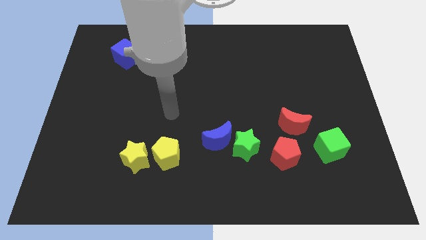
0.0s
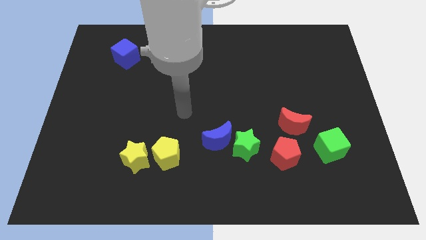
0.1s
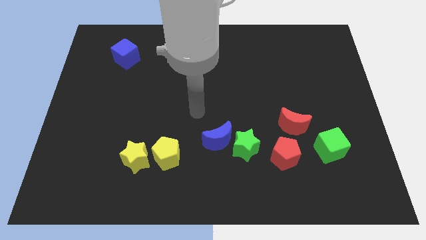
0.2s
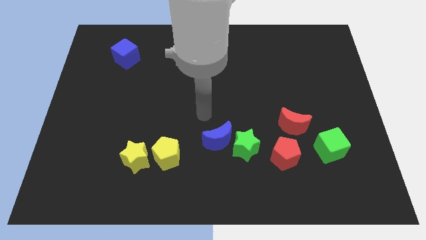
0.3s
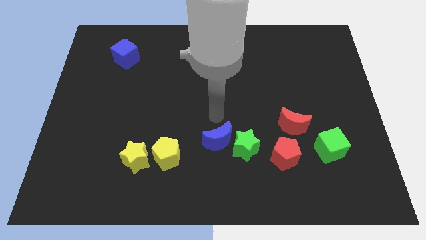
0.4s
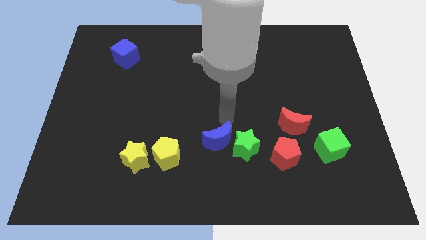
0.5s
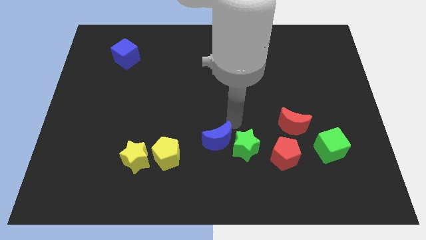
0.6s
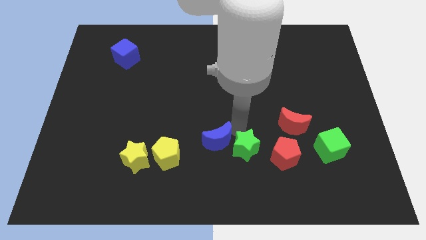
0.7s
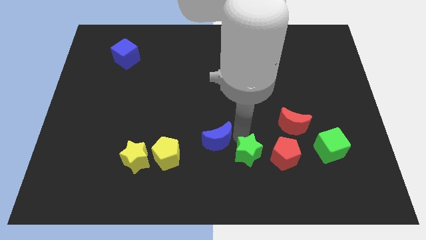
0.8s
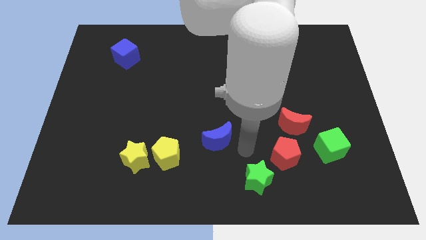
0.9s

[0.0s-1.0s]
pull the blue moon apart from the green star

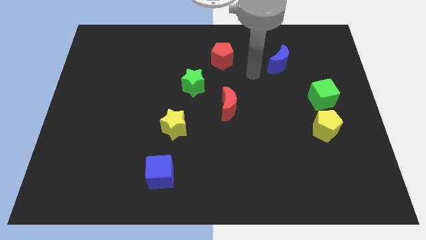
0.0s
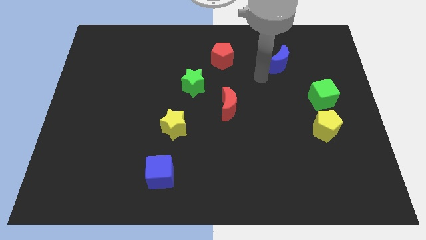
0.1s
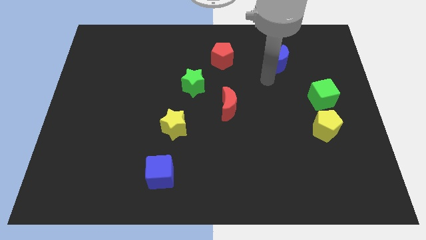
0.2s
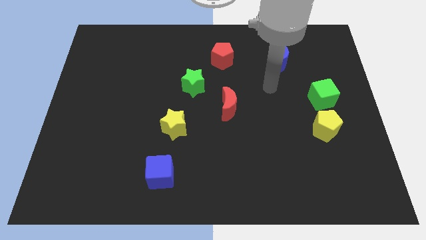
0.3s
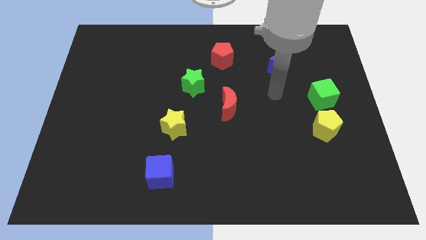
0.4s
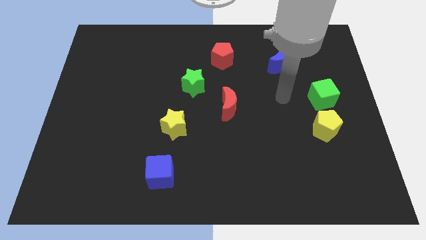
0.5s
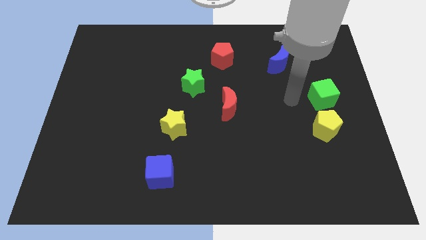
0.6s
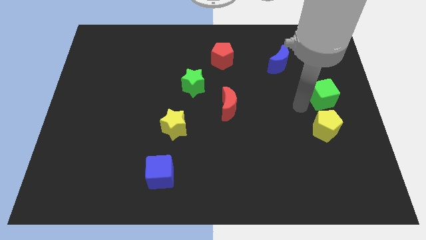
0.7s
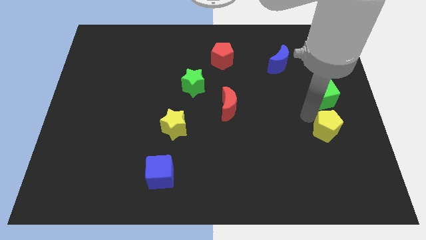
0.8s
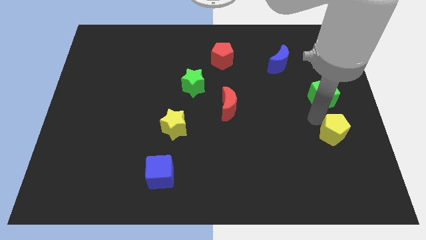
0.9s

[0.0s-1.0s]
move the green cube away from the yellow pentagon

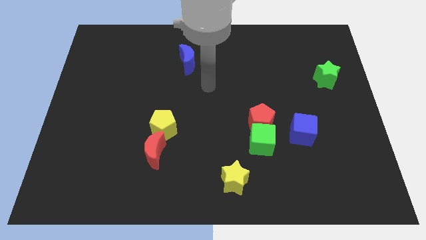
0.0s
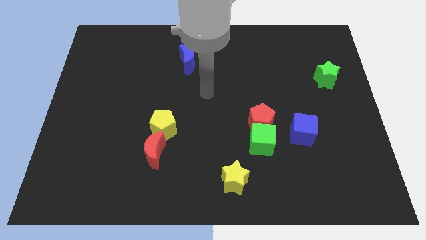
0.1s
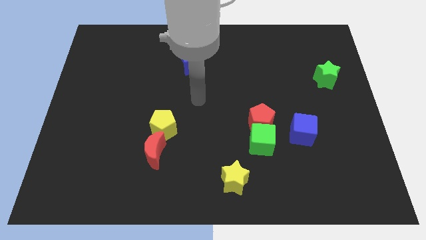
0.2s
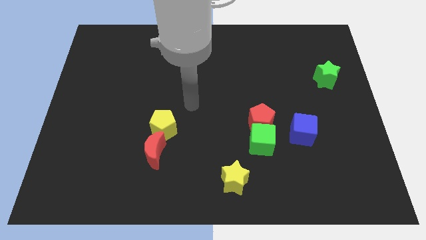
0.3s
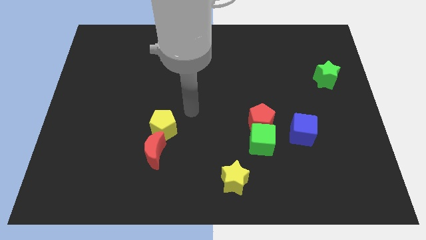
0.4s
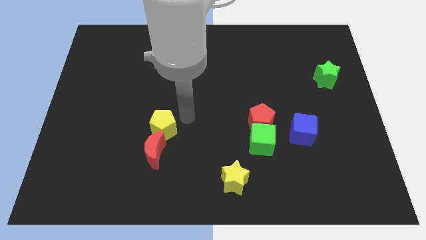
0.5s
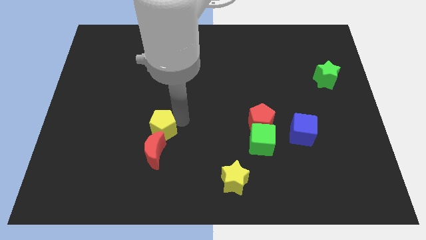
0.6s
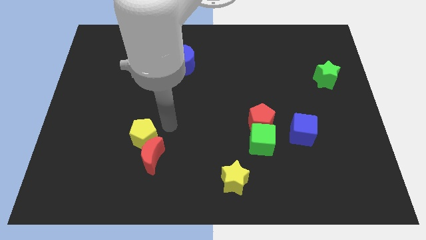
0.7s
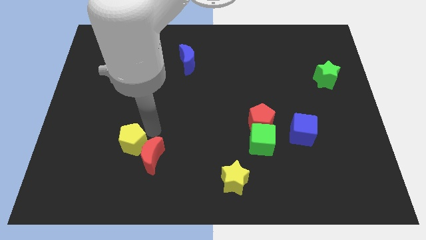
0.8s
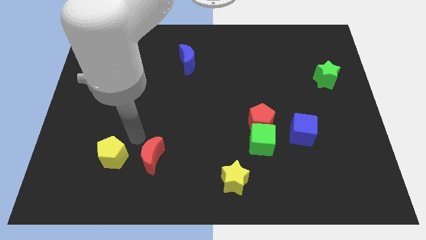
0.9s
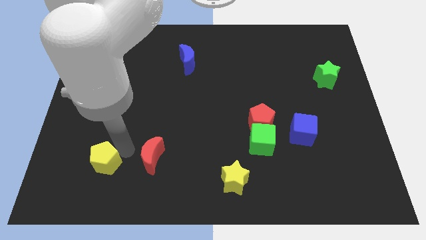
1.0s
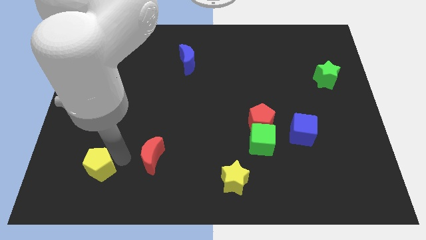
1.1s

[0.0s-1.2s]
separate the red moon from the yellow pentagon

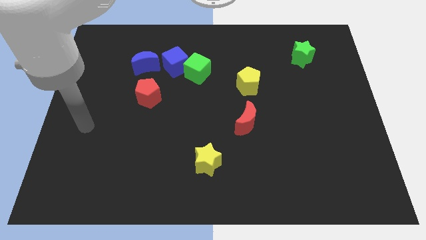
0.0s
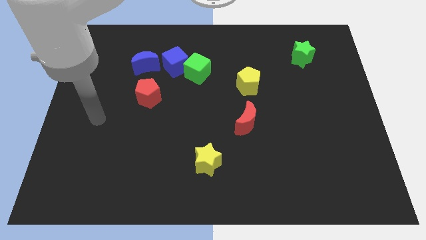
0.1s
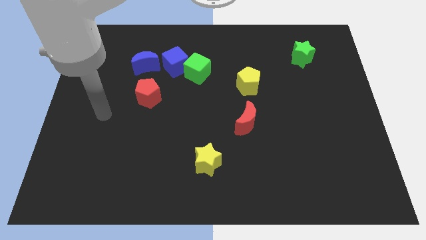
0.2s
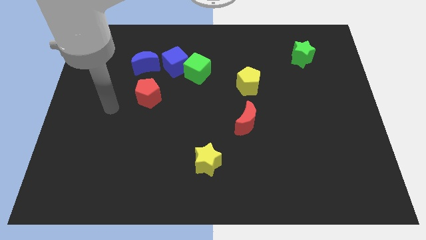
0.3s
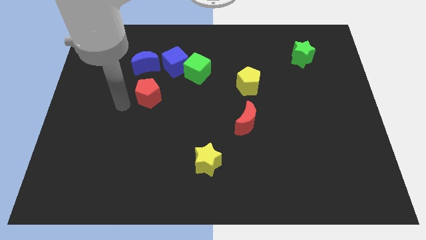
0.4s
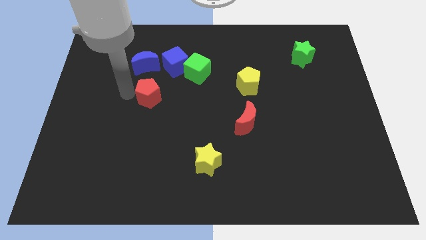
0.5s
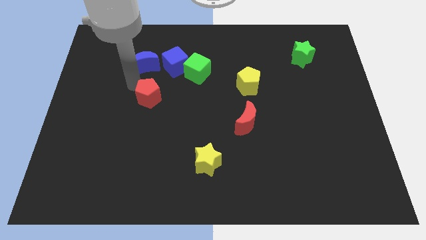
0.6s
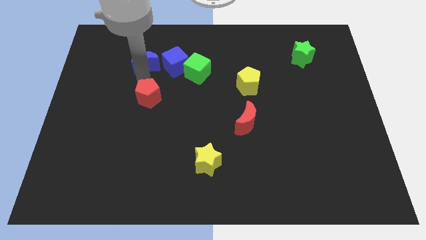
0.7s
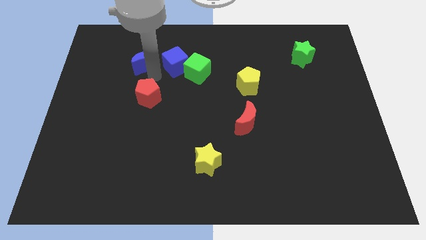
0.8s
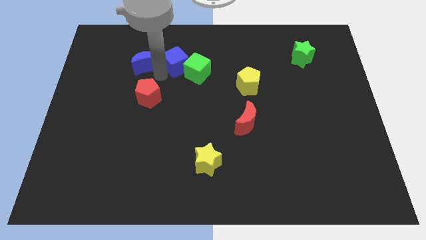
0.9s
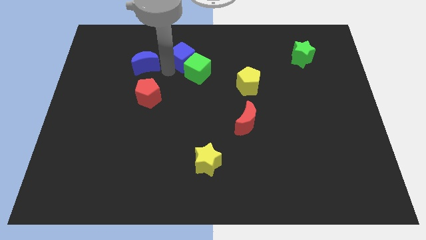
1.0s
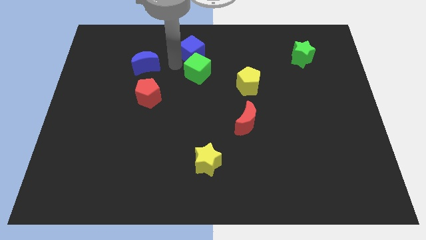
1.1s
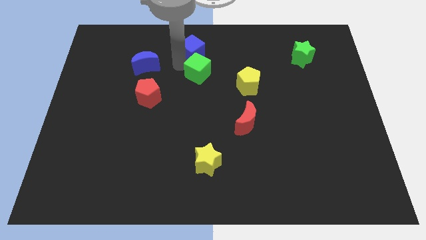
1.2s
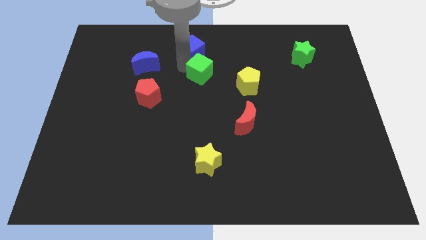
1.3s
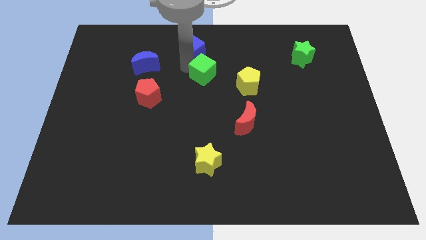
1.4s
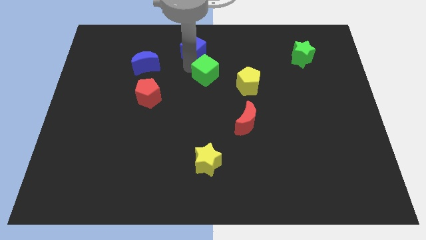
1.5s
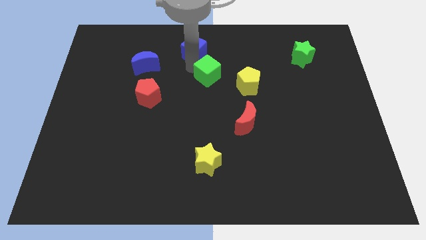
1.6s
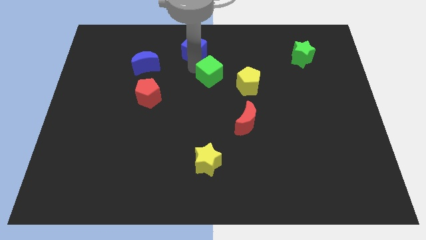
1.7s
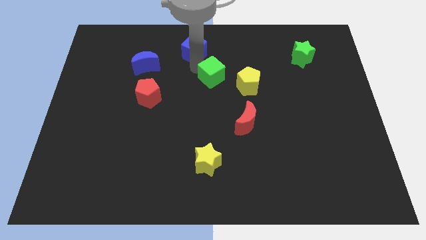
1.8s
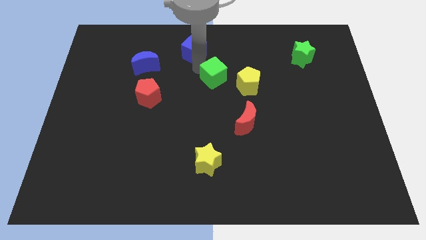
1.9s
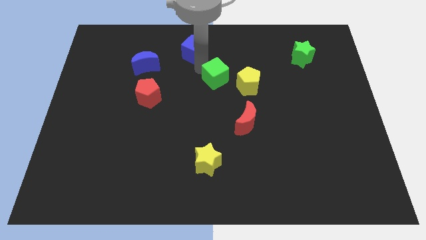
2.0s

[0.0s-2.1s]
pull the green cube apart from the blue cube

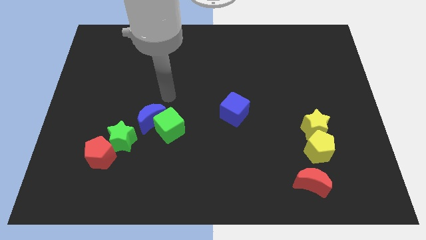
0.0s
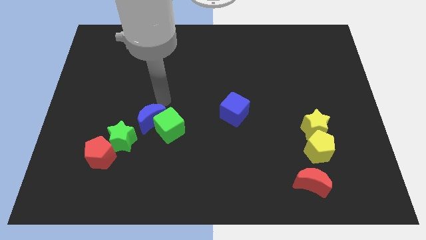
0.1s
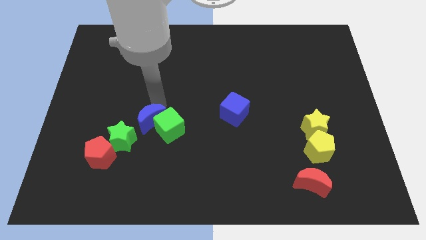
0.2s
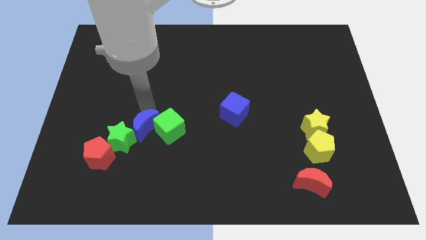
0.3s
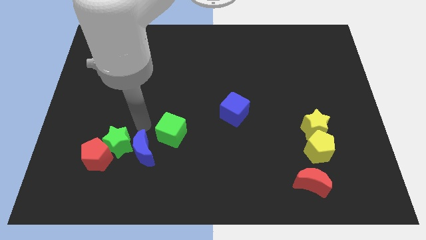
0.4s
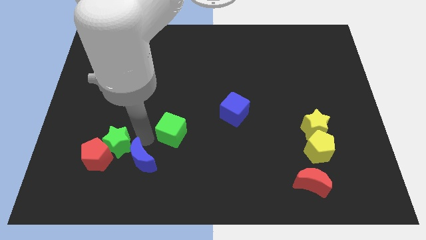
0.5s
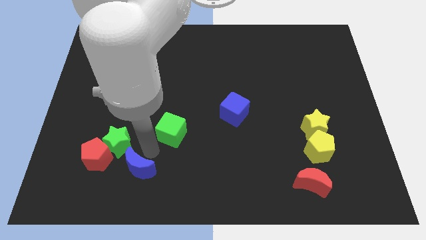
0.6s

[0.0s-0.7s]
move the green cube away from the blue moon

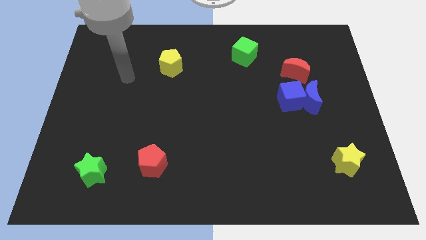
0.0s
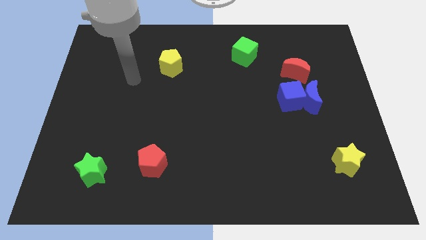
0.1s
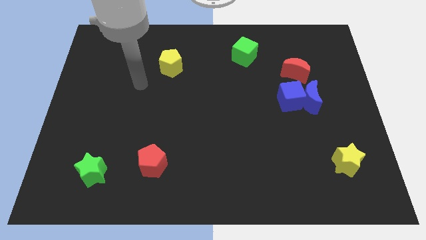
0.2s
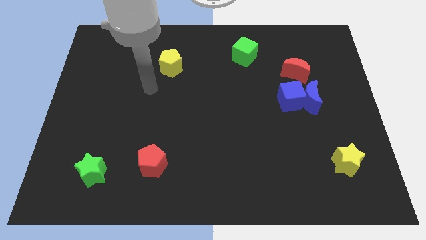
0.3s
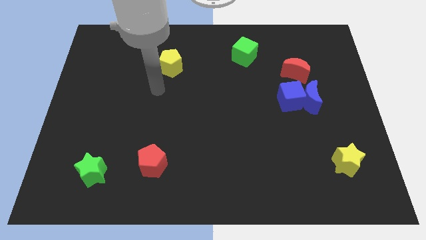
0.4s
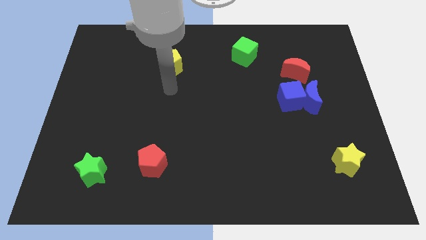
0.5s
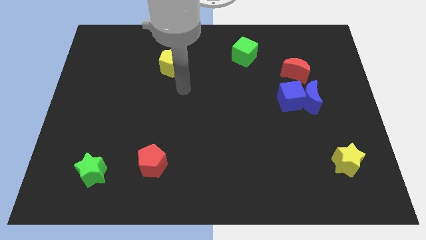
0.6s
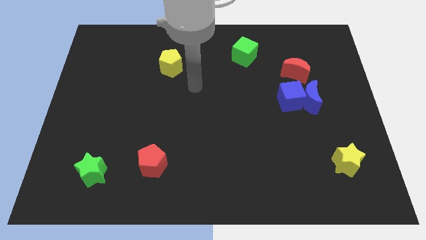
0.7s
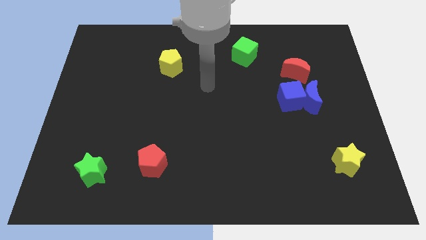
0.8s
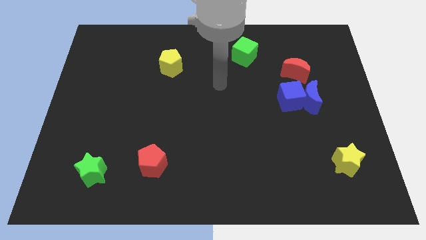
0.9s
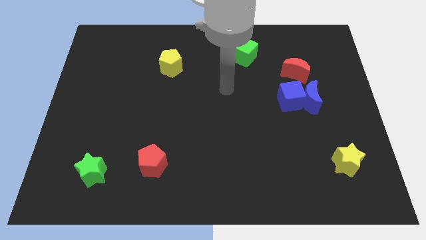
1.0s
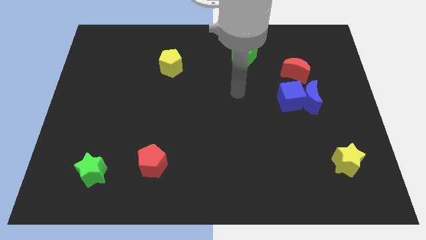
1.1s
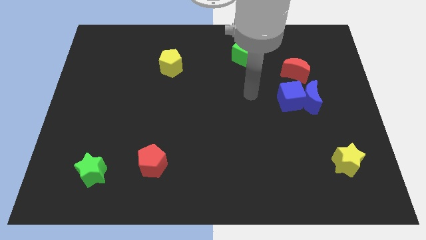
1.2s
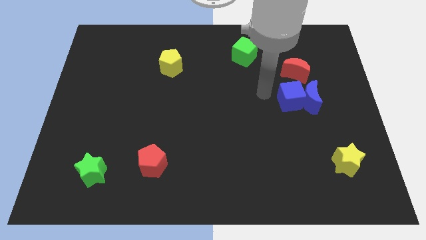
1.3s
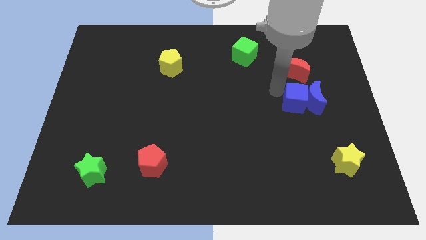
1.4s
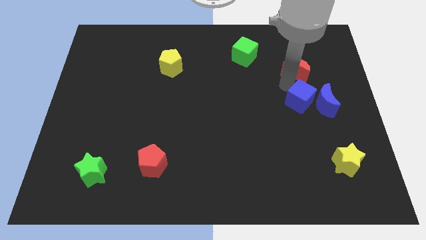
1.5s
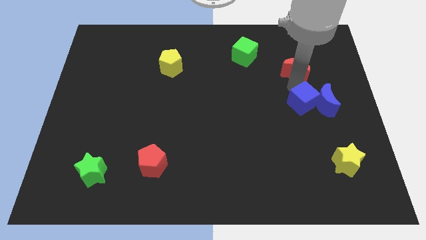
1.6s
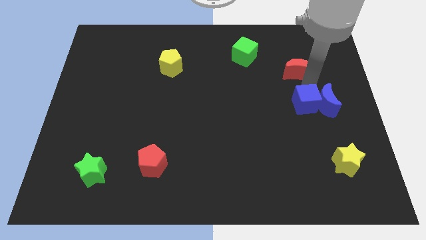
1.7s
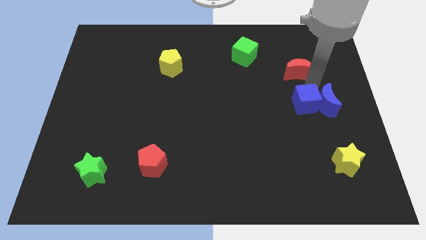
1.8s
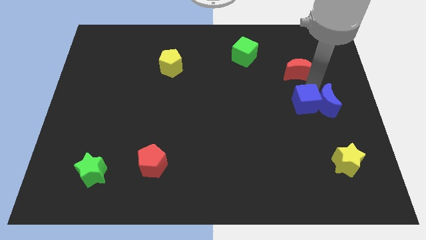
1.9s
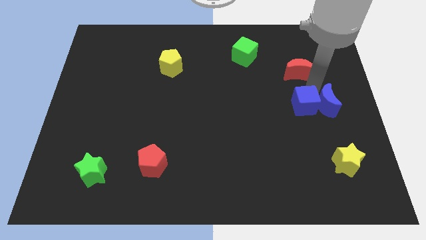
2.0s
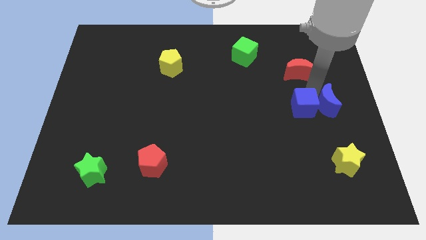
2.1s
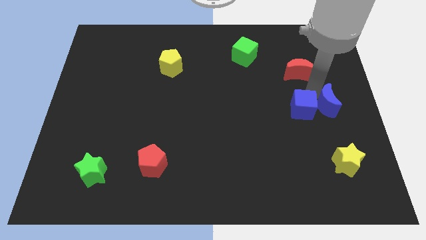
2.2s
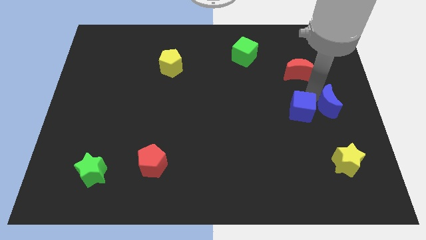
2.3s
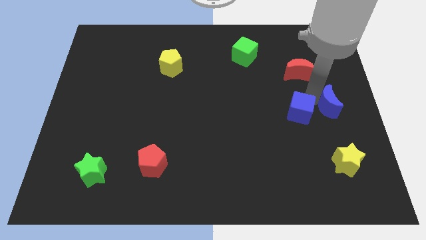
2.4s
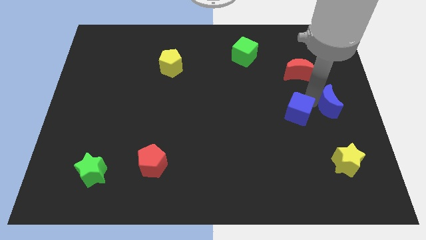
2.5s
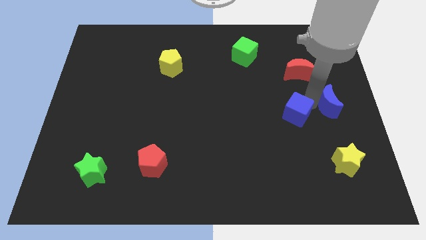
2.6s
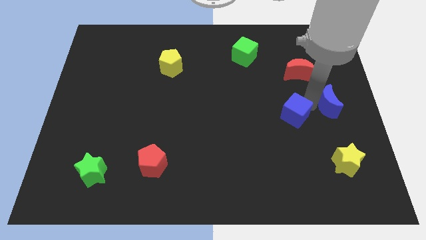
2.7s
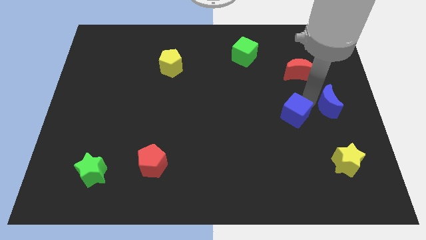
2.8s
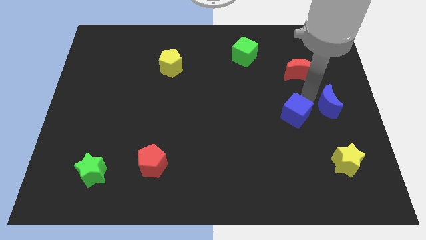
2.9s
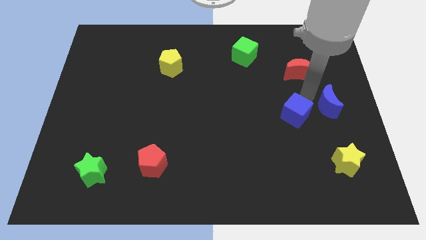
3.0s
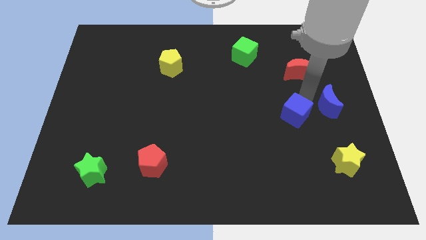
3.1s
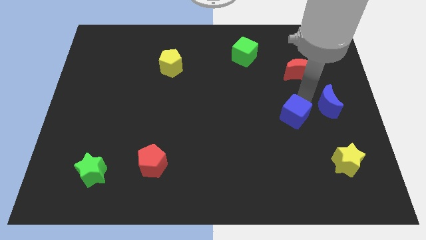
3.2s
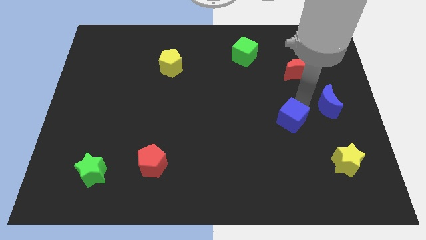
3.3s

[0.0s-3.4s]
separate the blue cube from the blue moon and red moon
